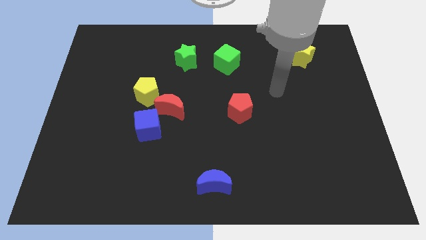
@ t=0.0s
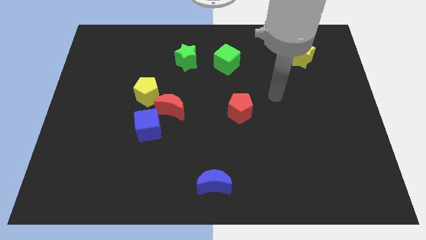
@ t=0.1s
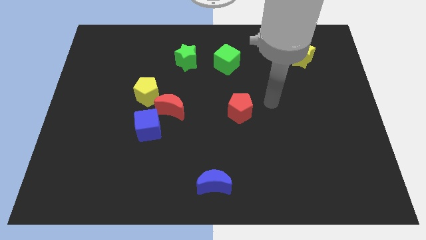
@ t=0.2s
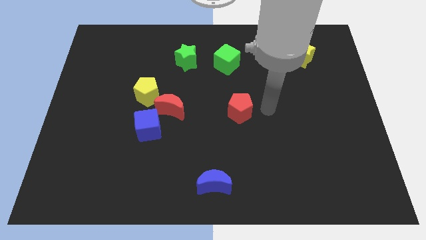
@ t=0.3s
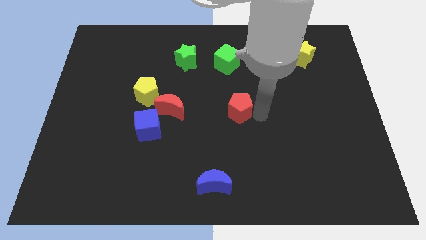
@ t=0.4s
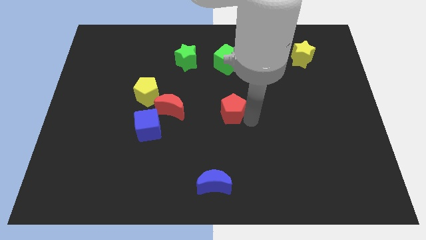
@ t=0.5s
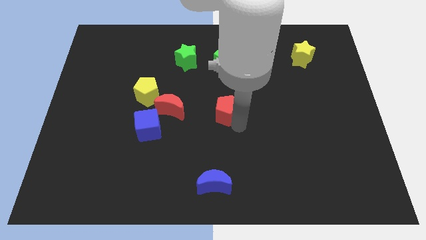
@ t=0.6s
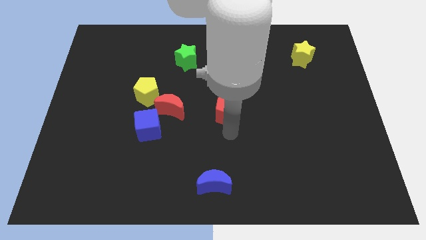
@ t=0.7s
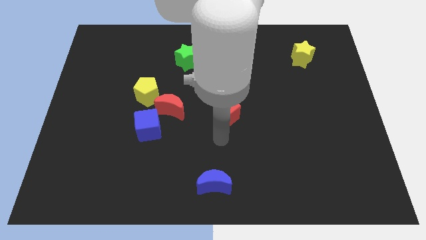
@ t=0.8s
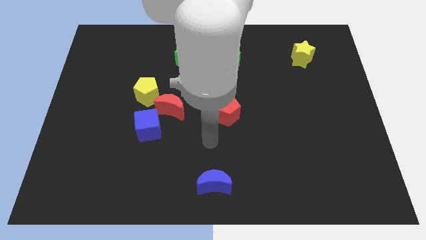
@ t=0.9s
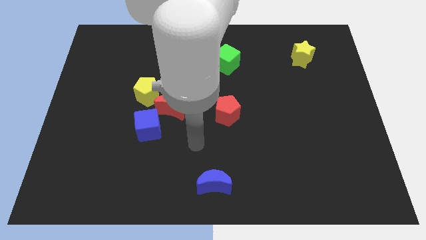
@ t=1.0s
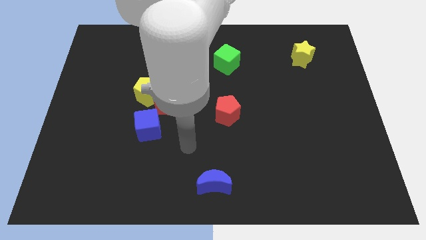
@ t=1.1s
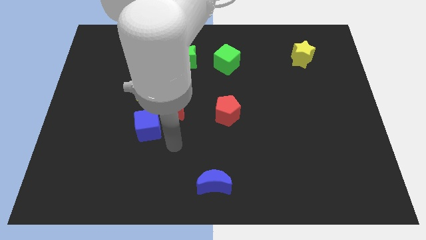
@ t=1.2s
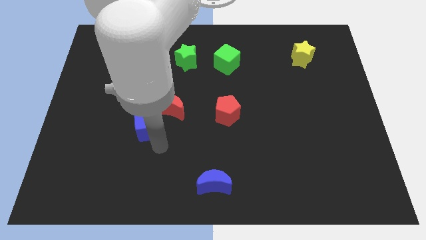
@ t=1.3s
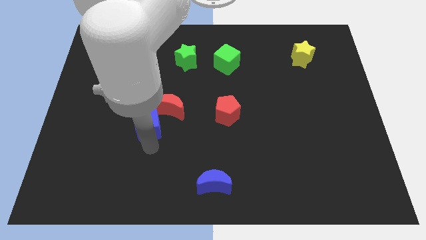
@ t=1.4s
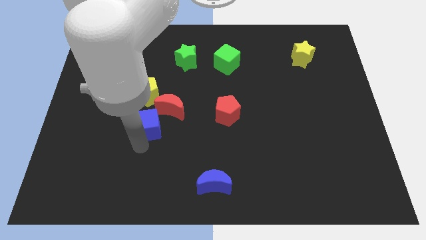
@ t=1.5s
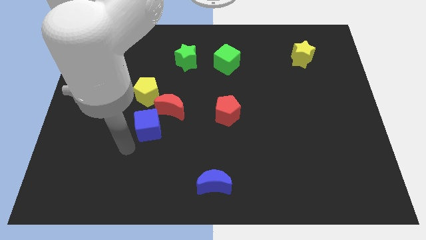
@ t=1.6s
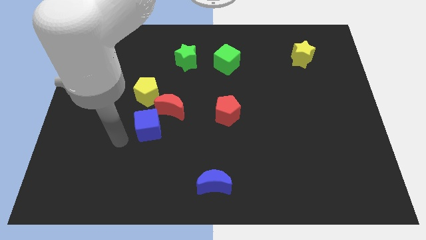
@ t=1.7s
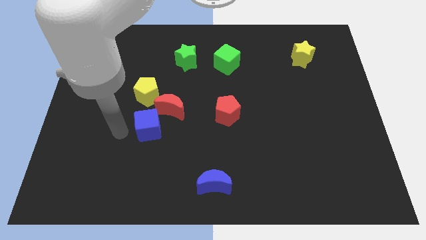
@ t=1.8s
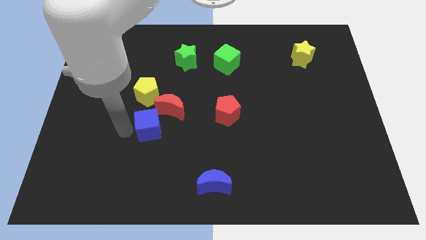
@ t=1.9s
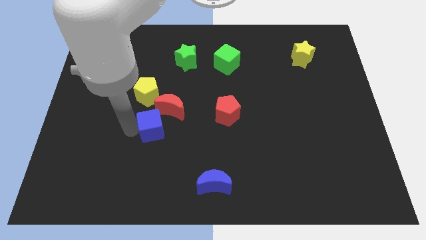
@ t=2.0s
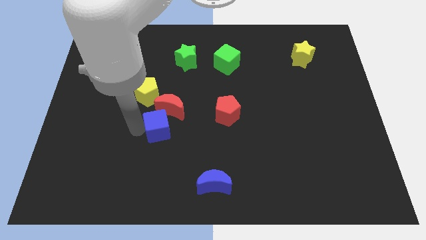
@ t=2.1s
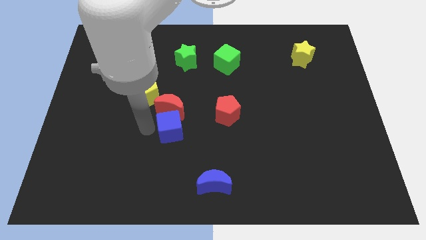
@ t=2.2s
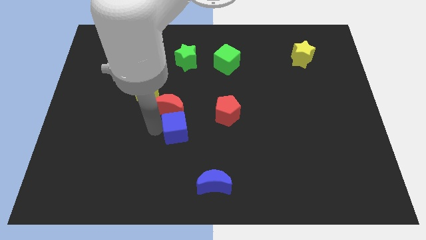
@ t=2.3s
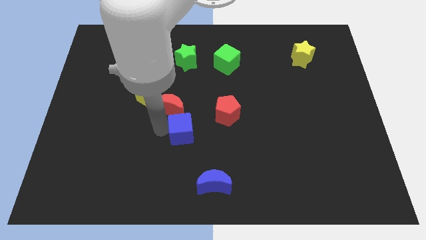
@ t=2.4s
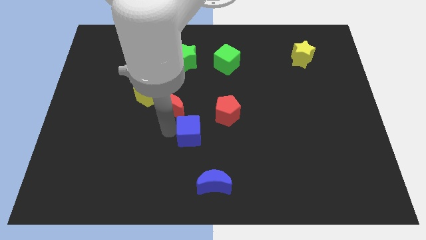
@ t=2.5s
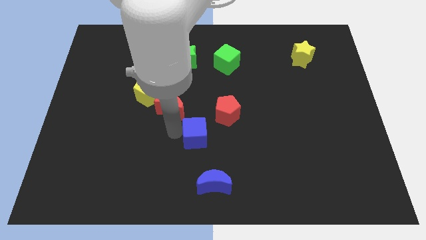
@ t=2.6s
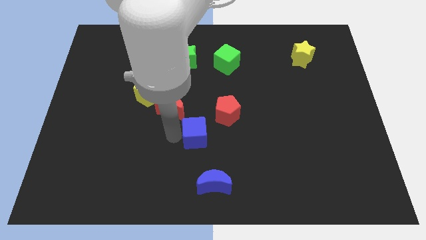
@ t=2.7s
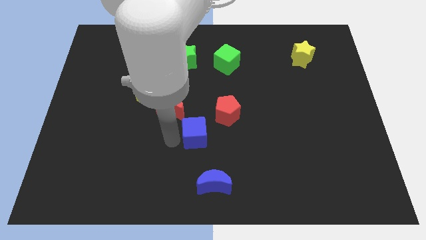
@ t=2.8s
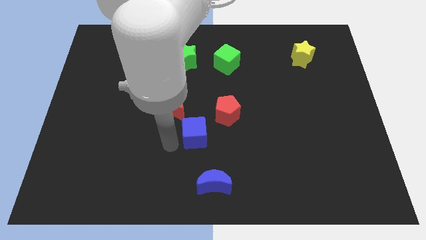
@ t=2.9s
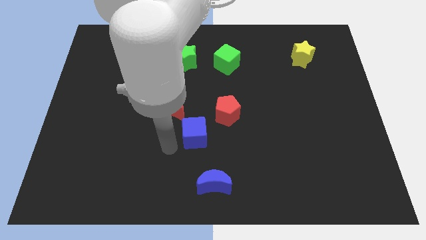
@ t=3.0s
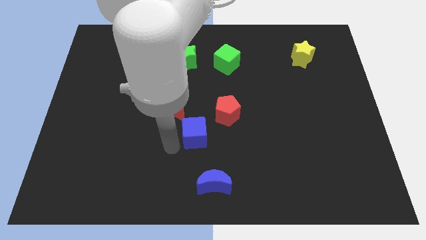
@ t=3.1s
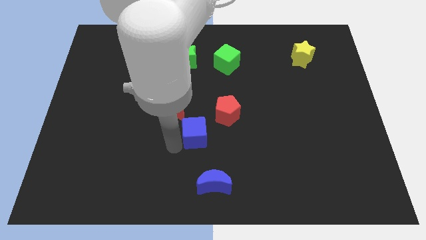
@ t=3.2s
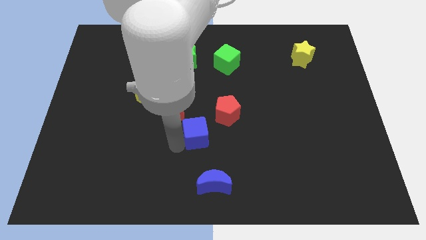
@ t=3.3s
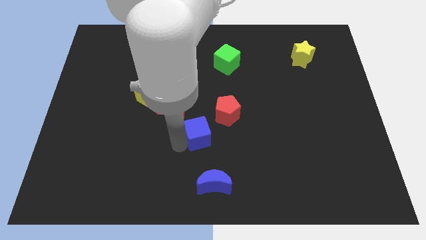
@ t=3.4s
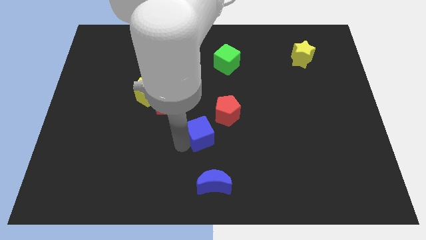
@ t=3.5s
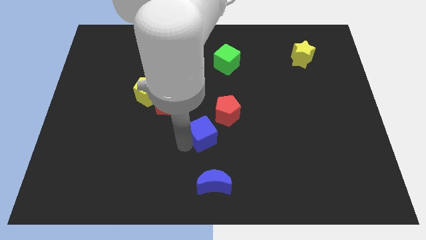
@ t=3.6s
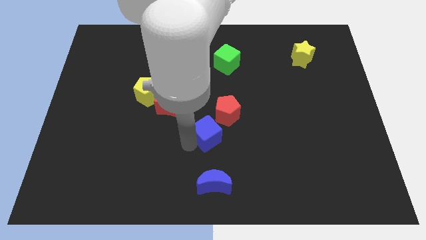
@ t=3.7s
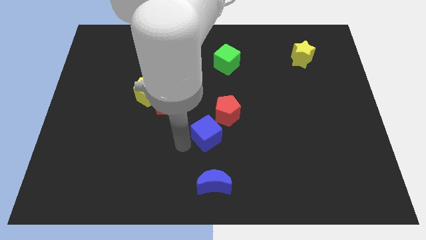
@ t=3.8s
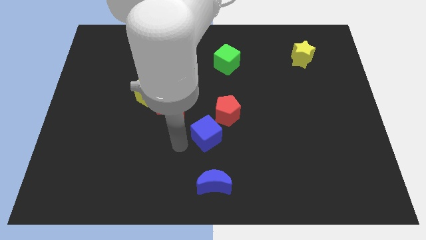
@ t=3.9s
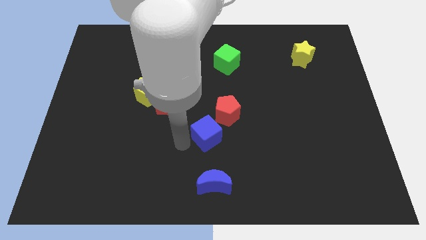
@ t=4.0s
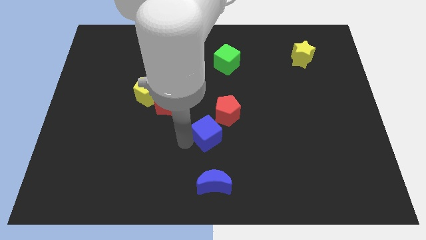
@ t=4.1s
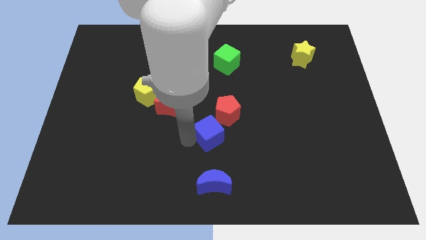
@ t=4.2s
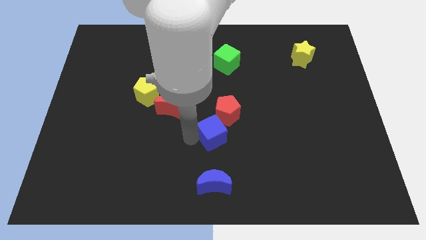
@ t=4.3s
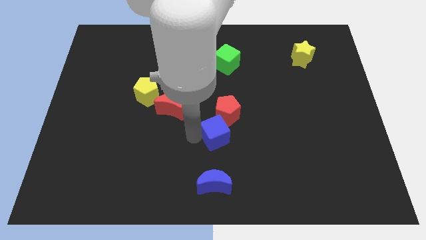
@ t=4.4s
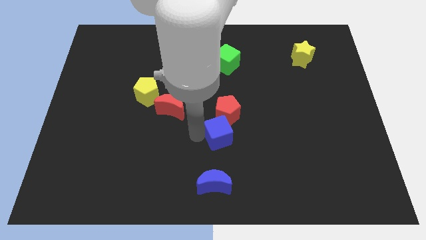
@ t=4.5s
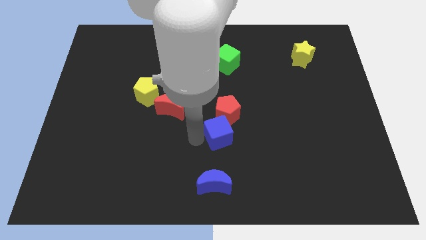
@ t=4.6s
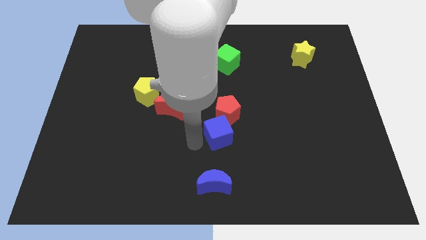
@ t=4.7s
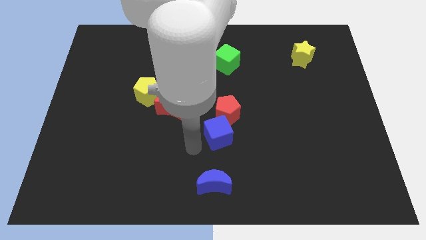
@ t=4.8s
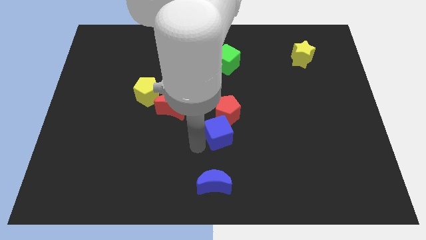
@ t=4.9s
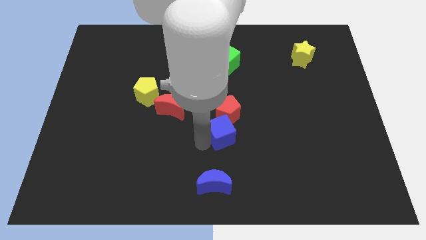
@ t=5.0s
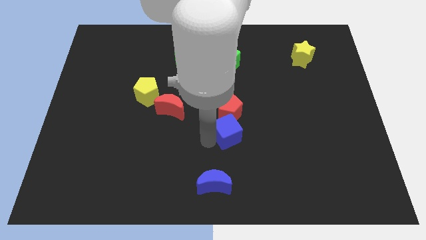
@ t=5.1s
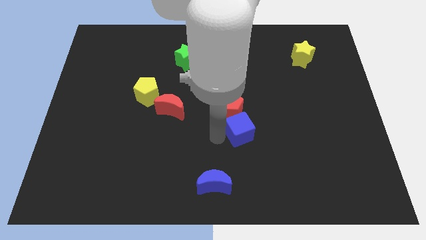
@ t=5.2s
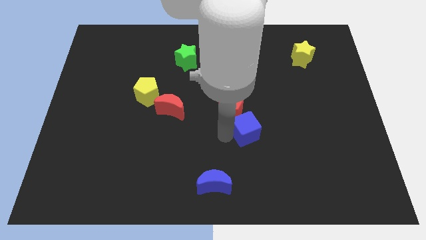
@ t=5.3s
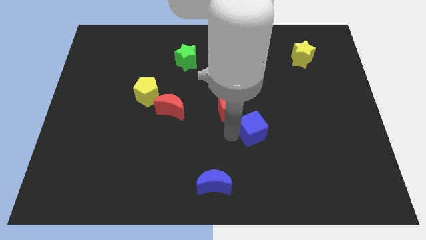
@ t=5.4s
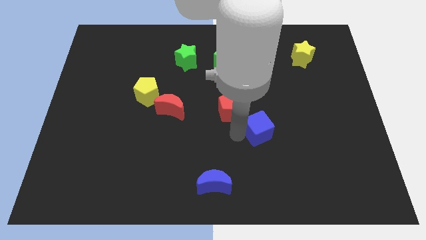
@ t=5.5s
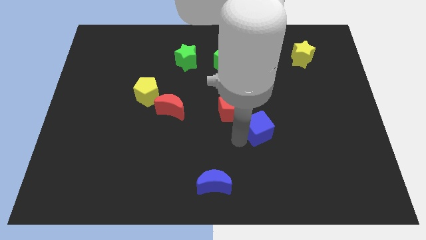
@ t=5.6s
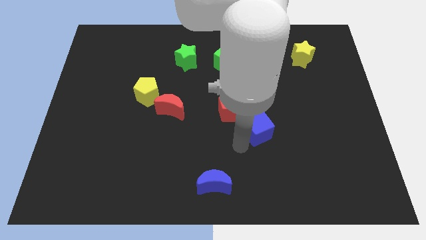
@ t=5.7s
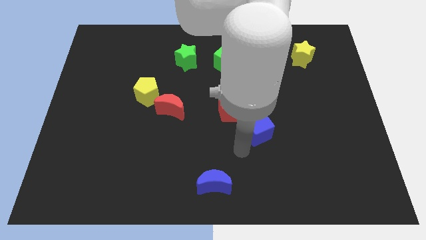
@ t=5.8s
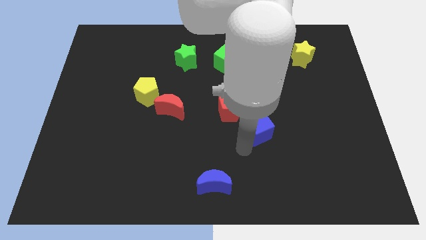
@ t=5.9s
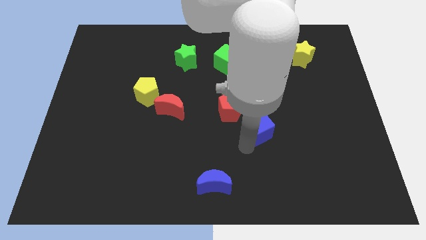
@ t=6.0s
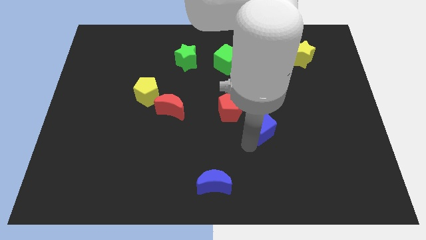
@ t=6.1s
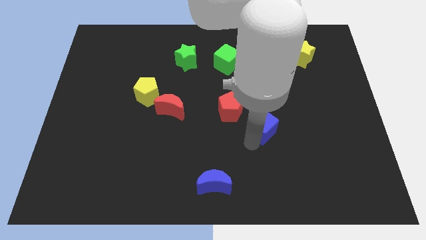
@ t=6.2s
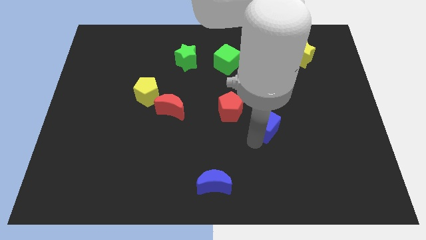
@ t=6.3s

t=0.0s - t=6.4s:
put the blue cube to the right side of the red pentagon

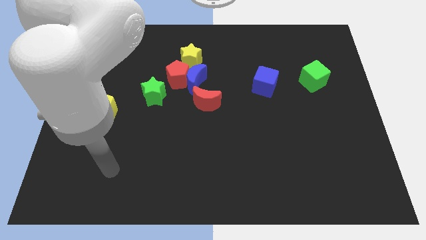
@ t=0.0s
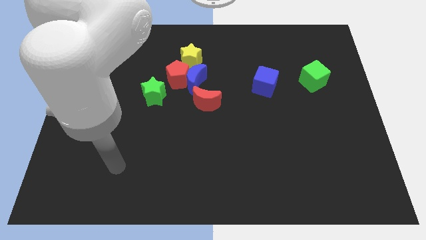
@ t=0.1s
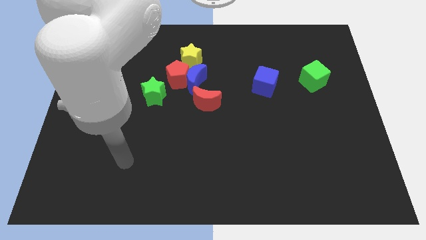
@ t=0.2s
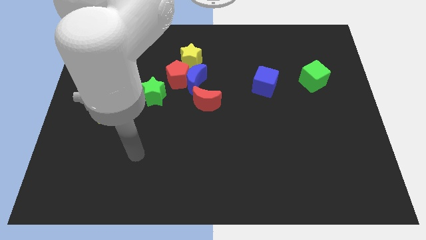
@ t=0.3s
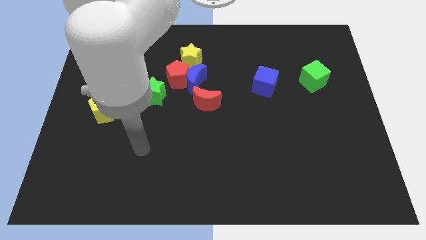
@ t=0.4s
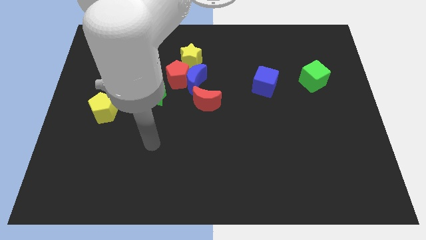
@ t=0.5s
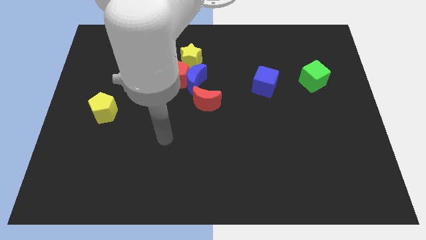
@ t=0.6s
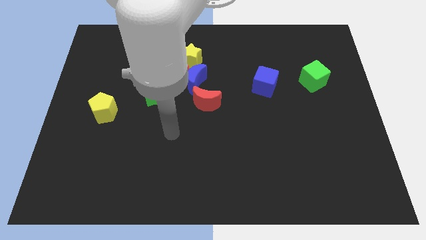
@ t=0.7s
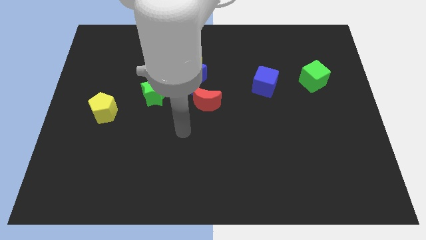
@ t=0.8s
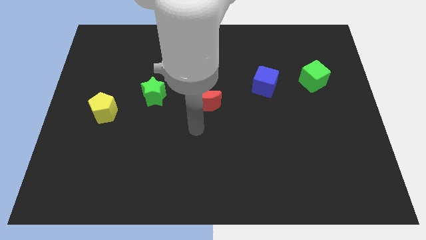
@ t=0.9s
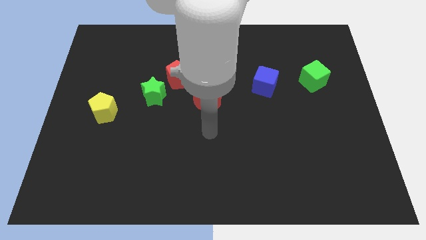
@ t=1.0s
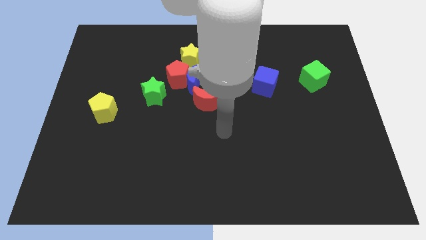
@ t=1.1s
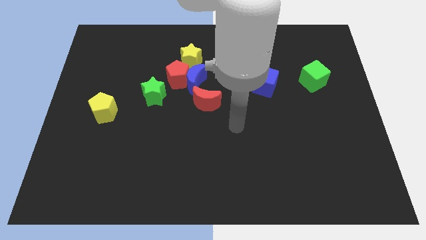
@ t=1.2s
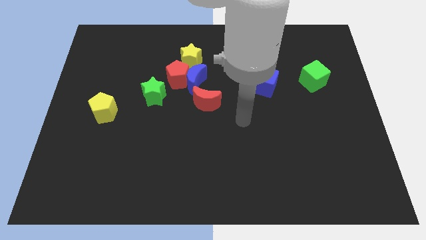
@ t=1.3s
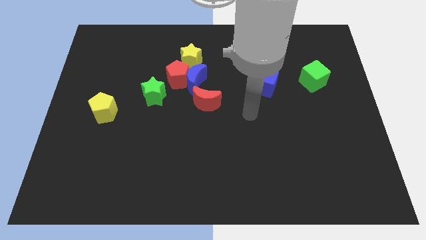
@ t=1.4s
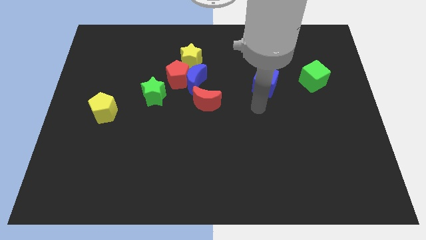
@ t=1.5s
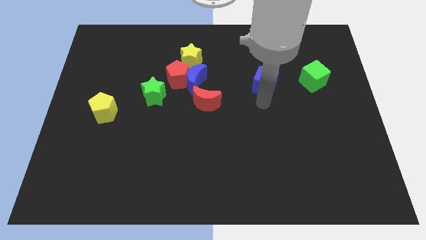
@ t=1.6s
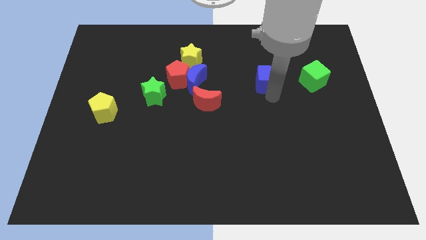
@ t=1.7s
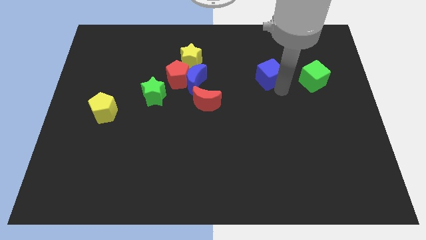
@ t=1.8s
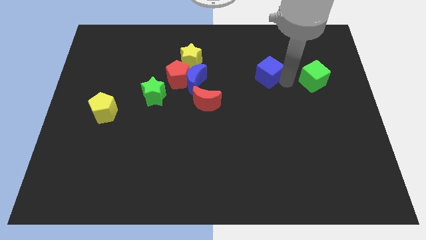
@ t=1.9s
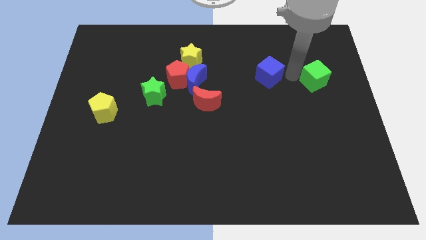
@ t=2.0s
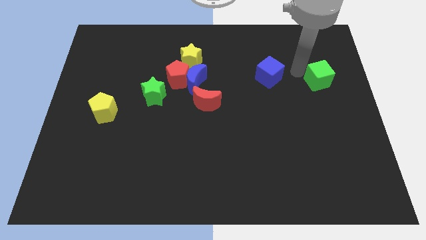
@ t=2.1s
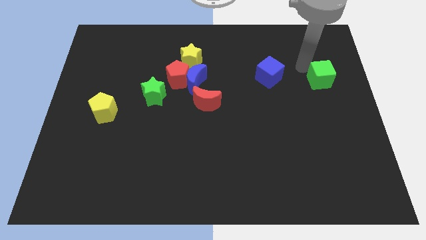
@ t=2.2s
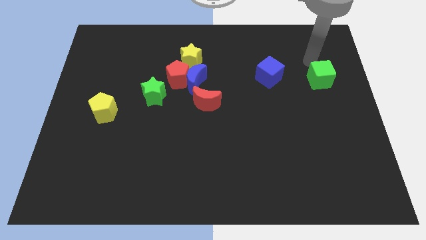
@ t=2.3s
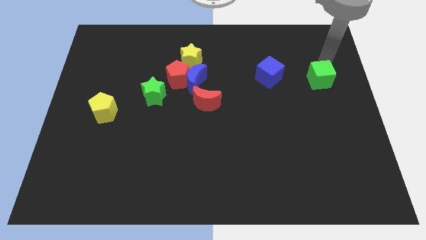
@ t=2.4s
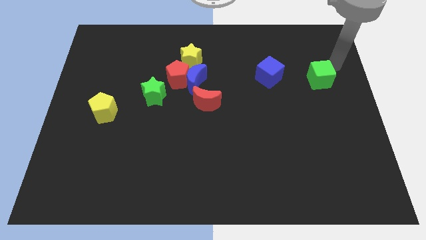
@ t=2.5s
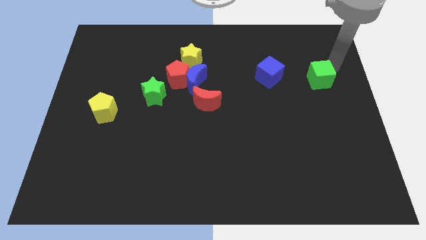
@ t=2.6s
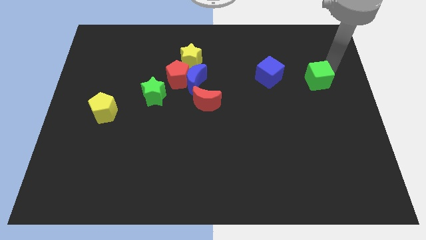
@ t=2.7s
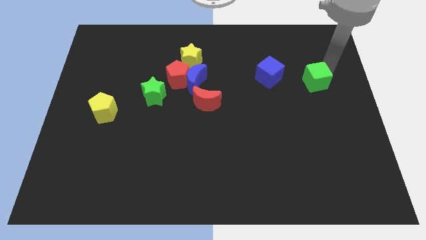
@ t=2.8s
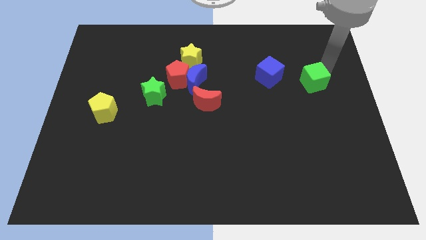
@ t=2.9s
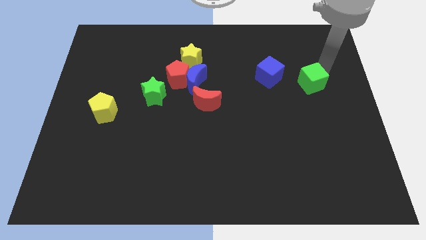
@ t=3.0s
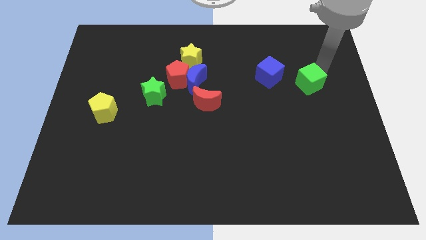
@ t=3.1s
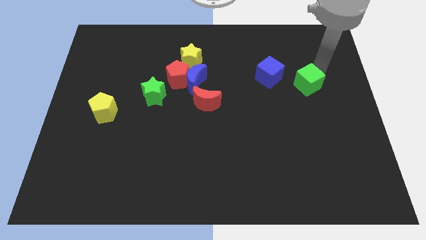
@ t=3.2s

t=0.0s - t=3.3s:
put the green cube to the bottom right of the blue cube
